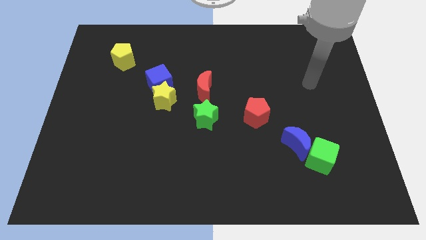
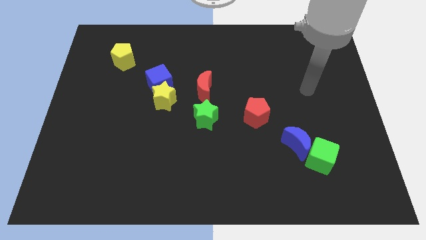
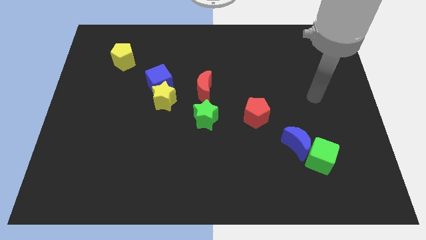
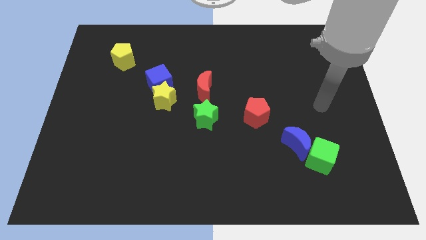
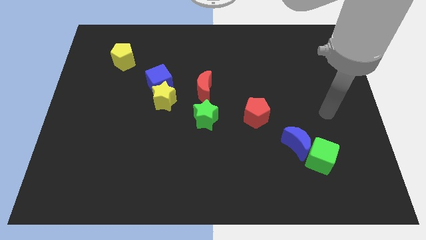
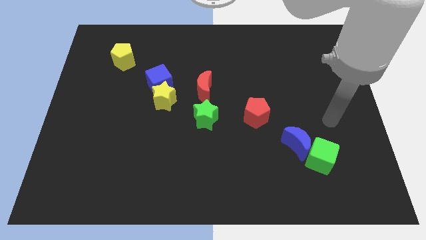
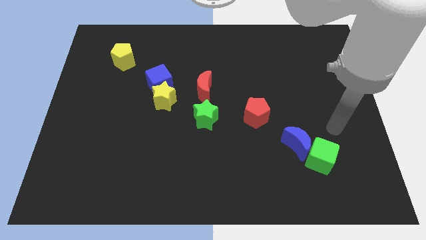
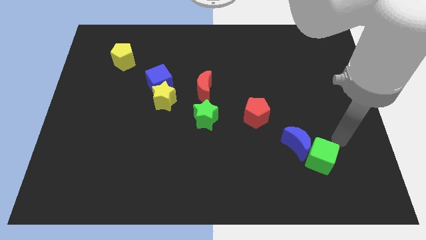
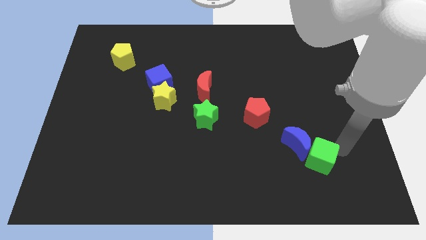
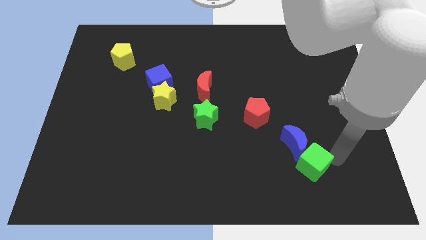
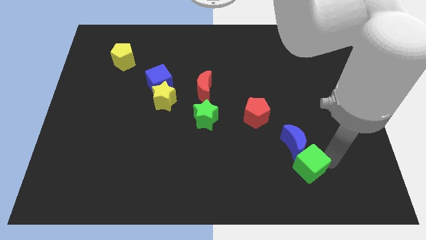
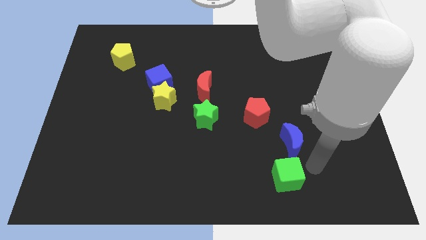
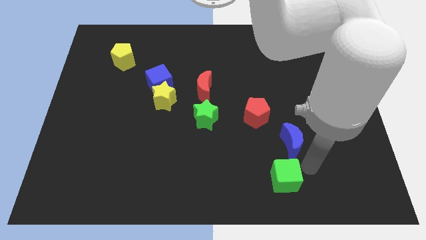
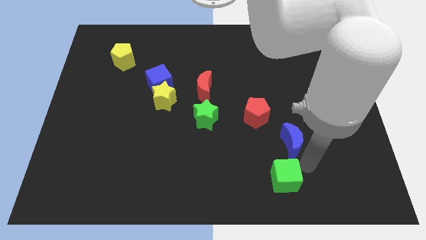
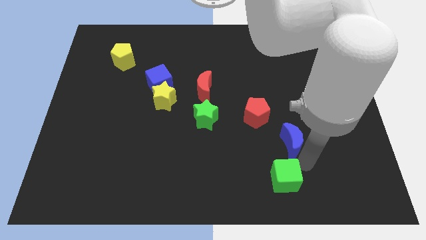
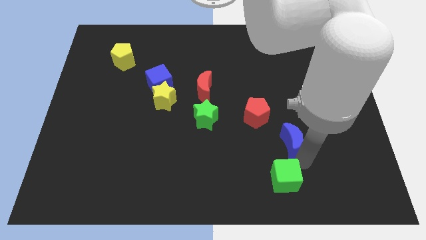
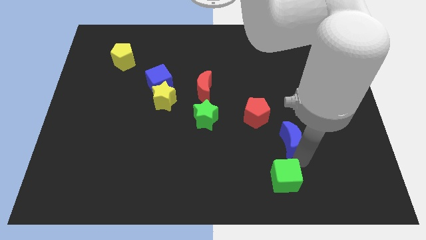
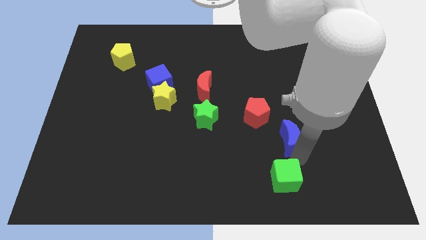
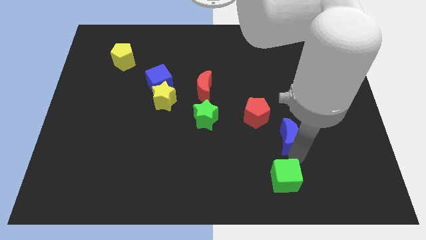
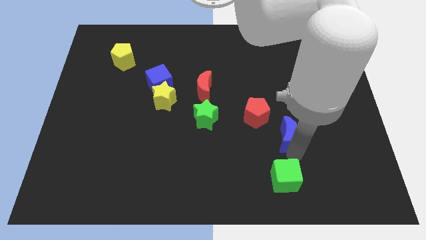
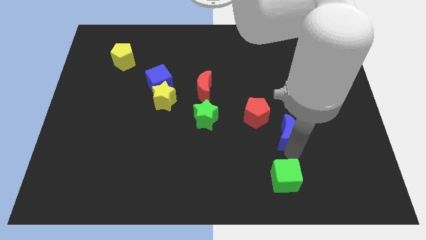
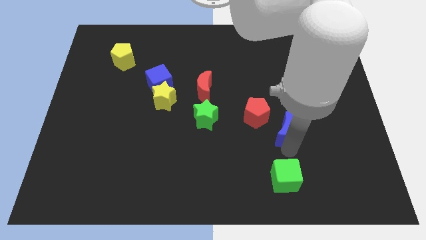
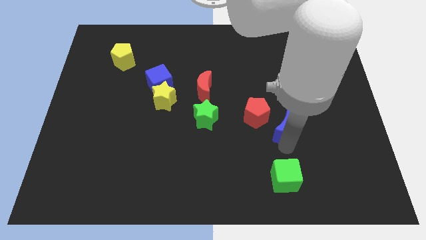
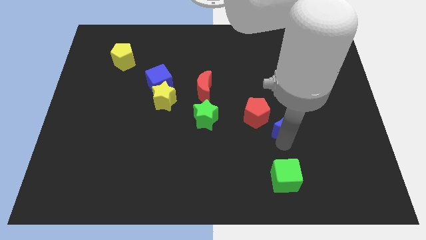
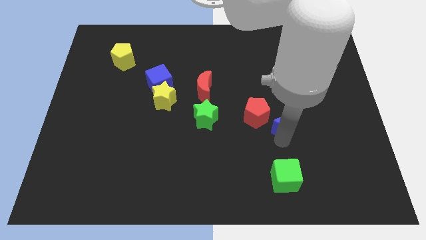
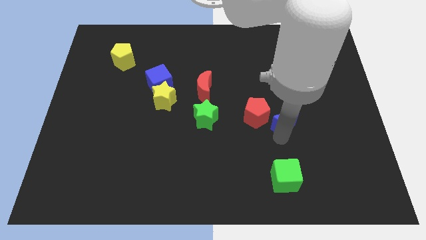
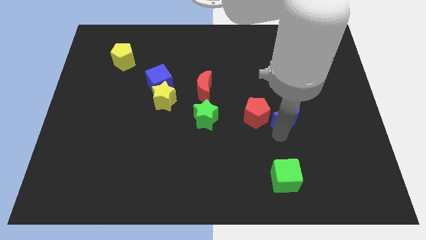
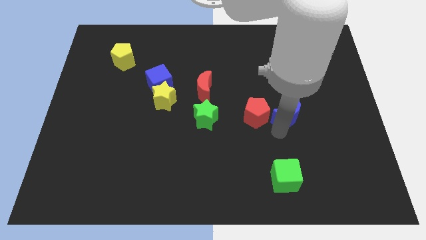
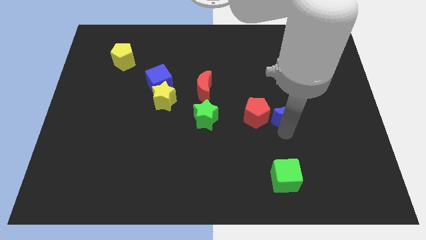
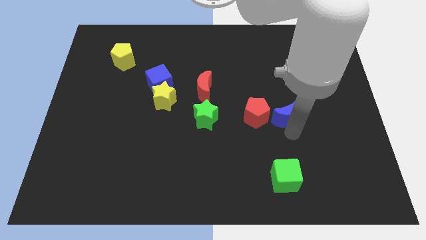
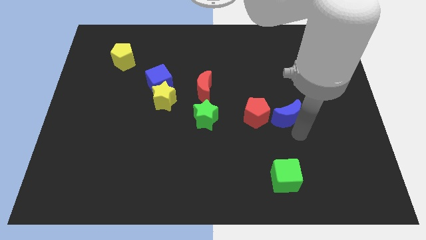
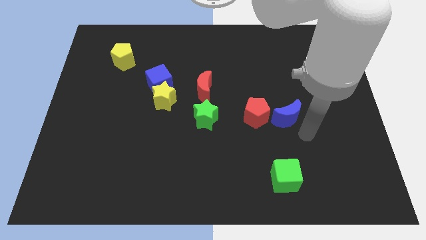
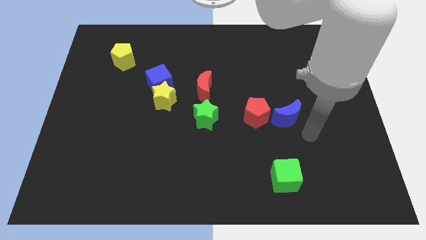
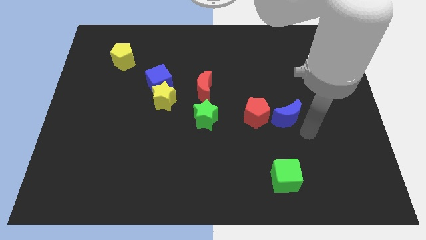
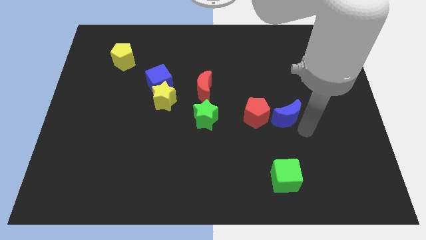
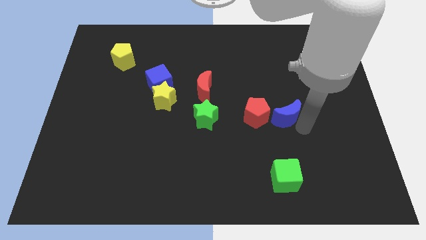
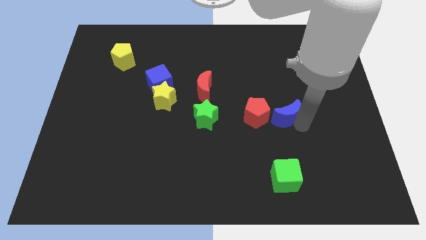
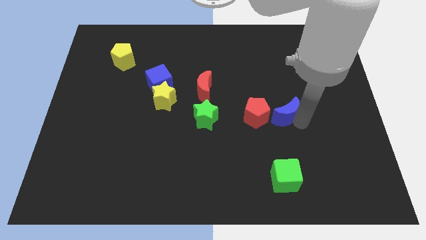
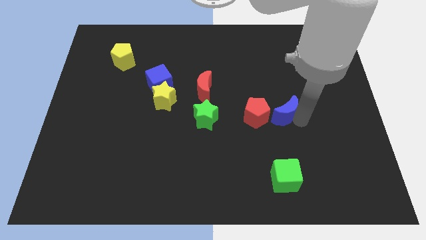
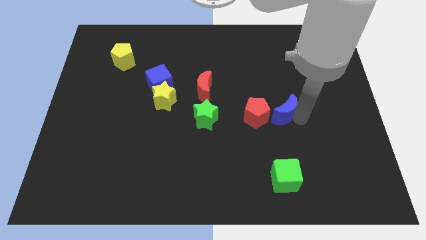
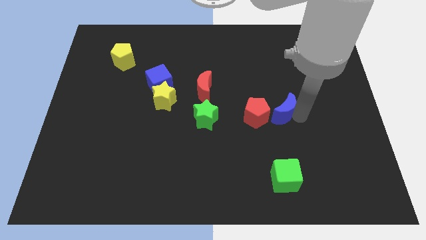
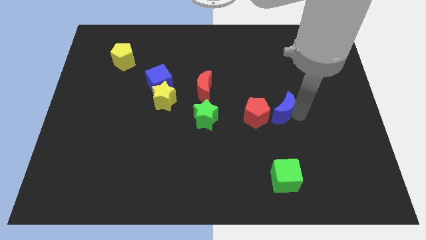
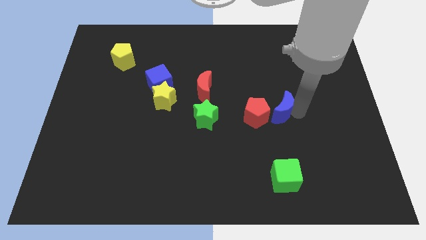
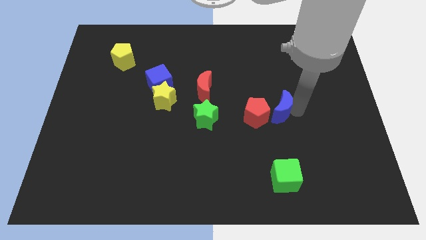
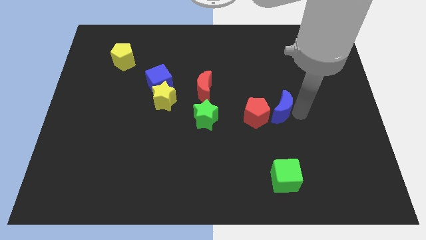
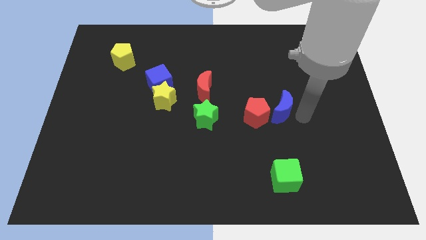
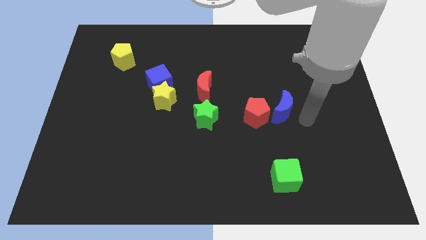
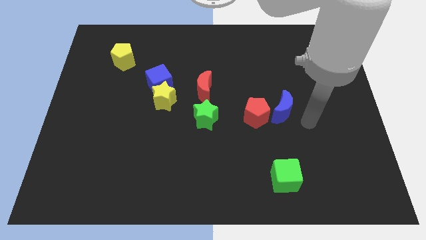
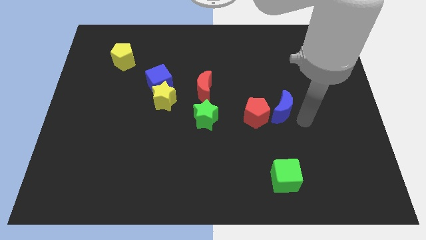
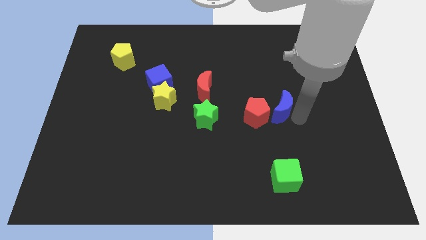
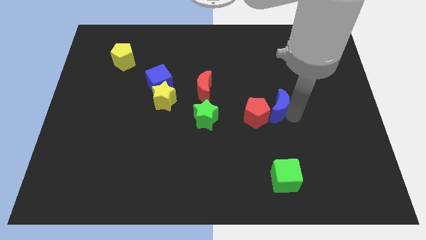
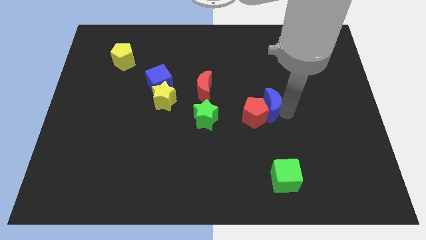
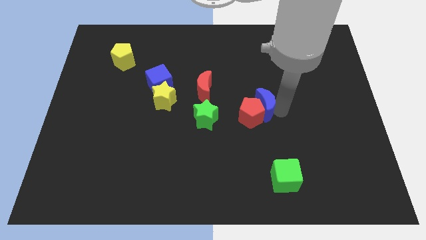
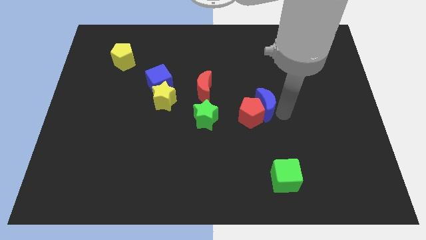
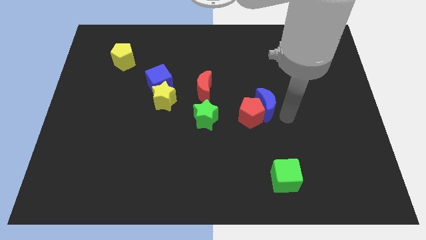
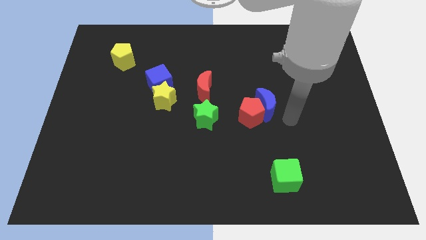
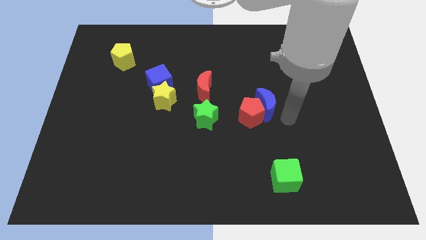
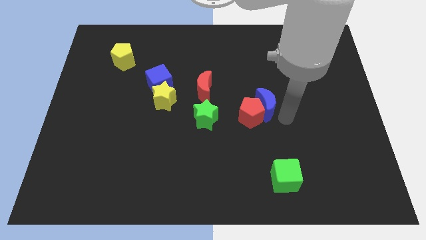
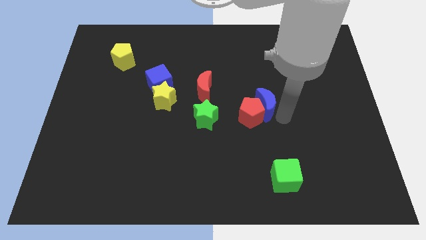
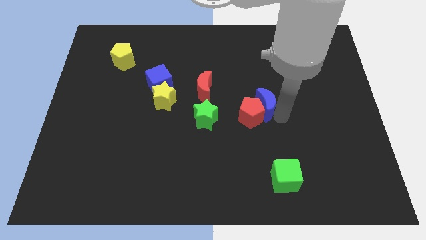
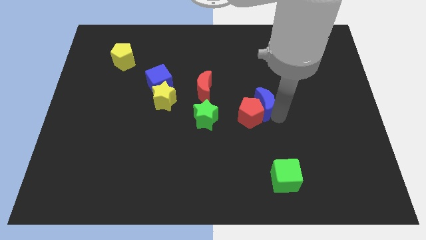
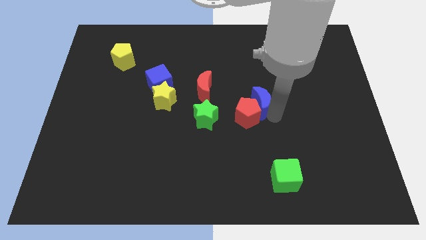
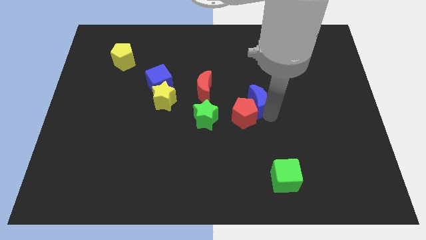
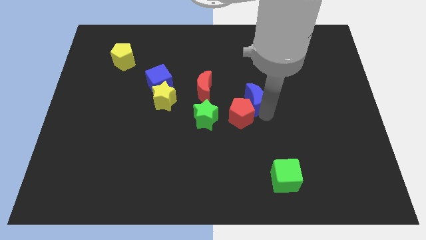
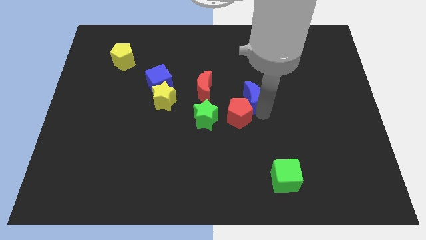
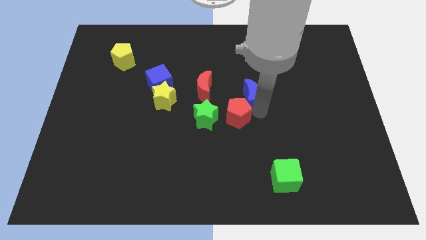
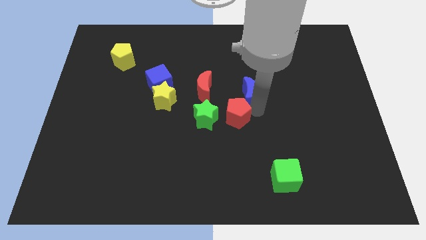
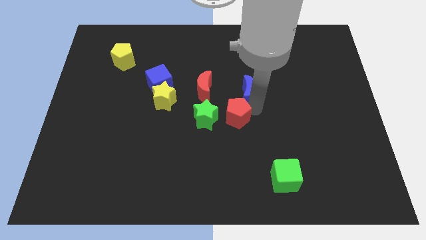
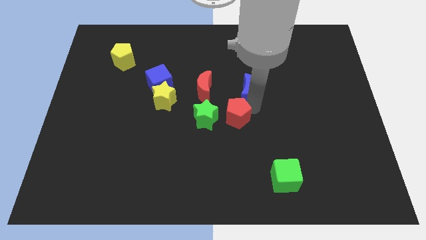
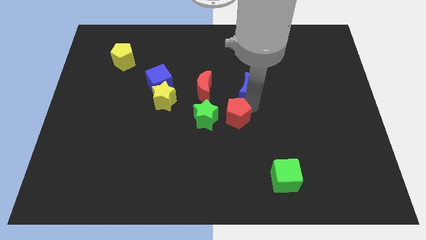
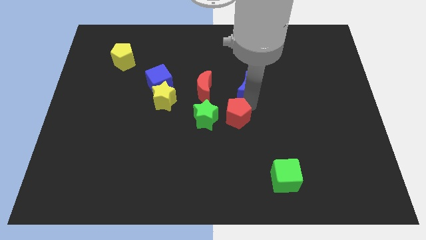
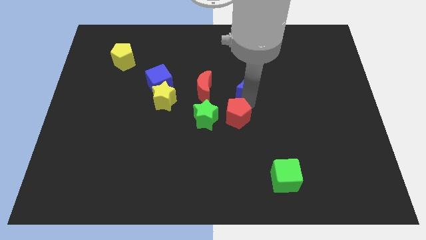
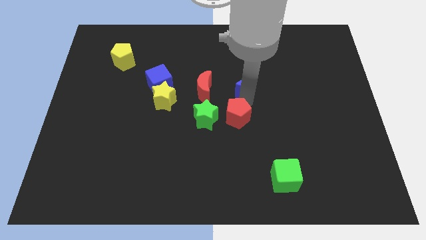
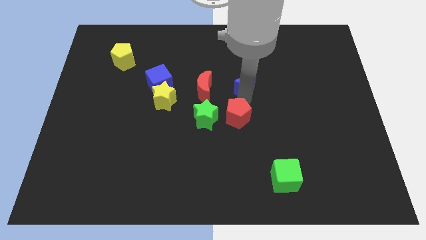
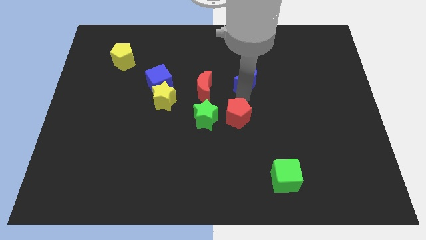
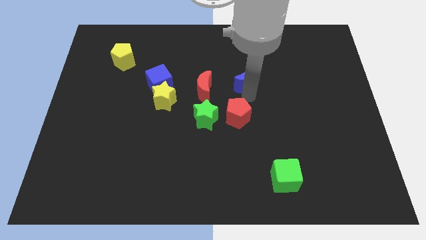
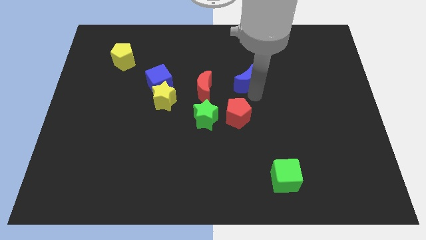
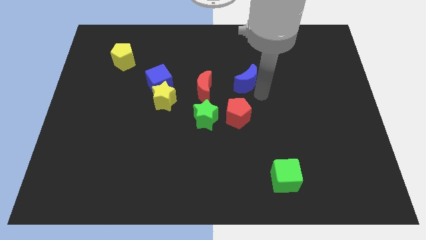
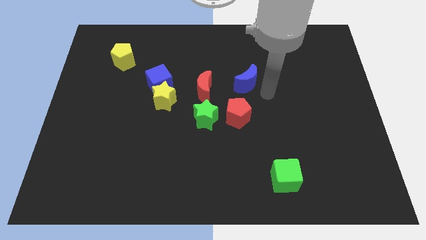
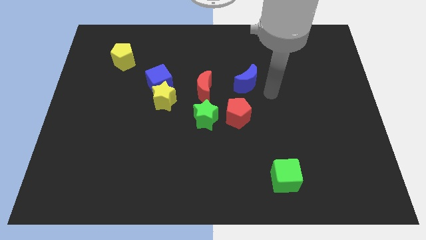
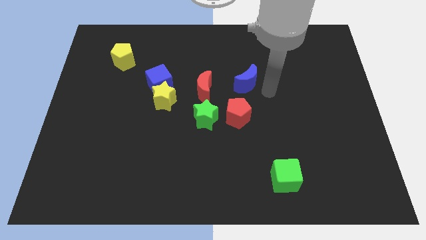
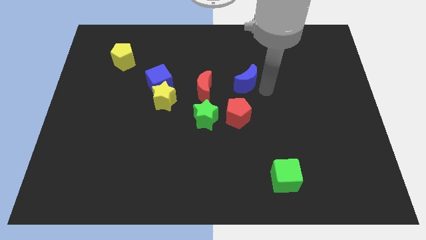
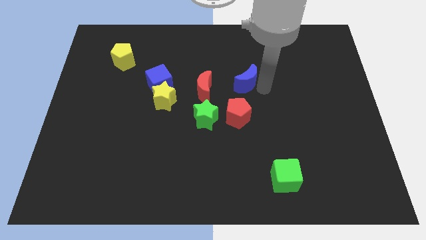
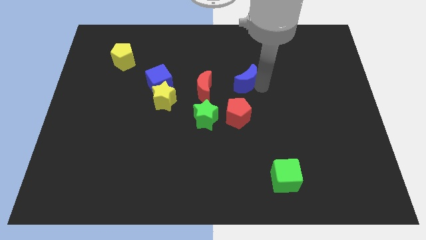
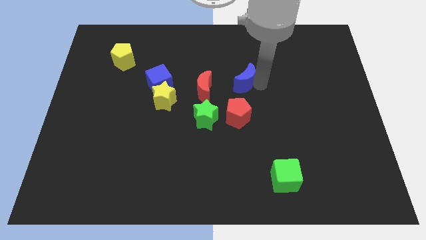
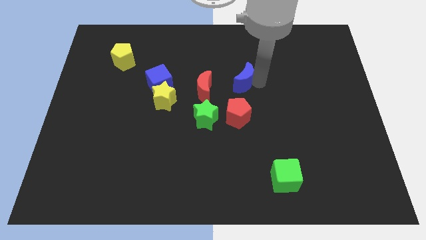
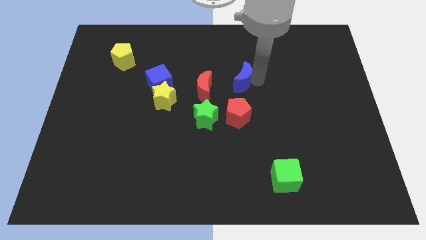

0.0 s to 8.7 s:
push the blue moon diagonally up and to the right of the red moon
